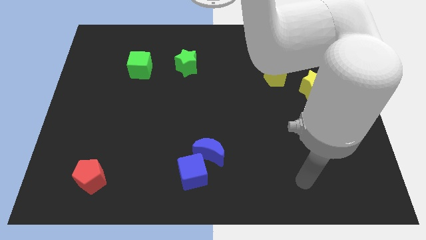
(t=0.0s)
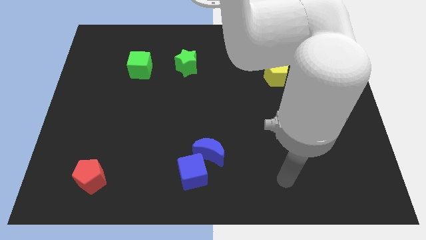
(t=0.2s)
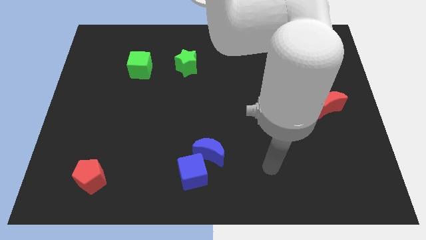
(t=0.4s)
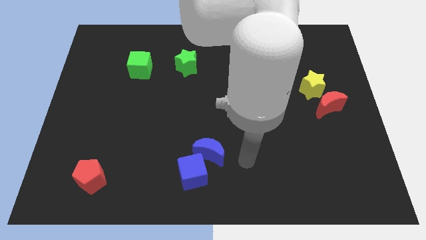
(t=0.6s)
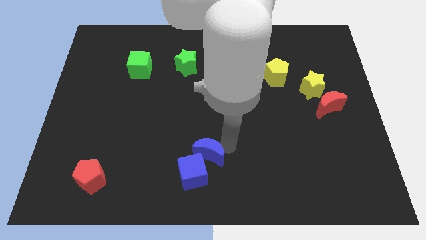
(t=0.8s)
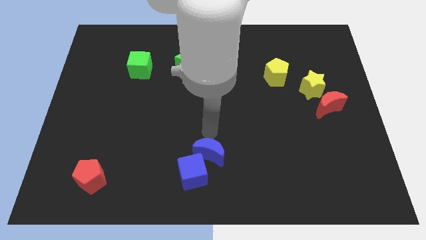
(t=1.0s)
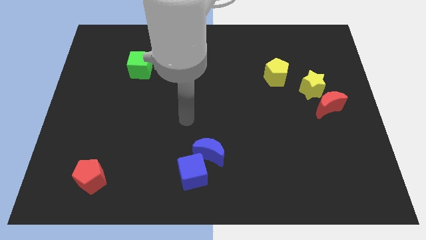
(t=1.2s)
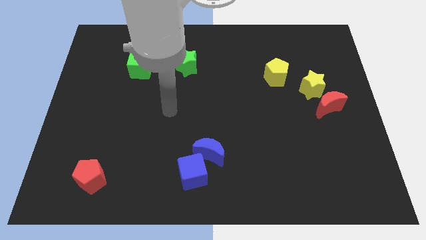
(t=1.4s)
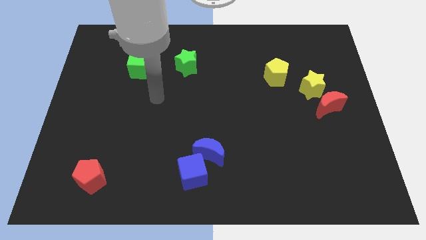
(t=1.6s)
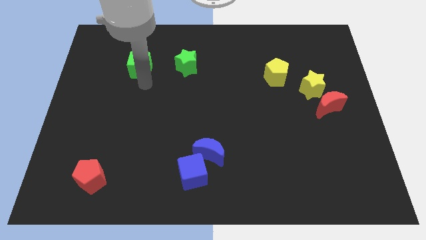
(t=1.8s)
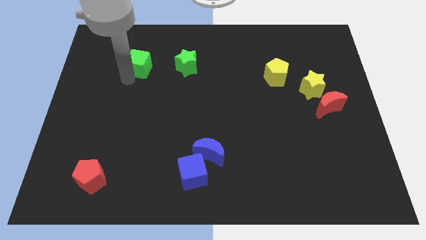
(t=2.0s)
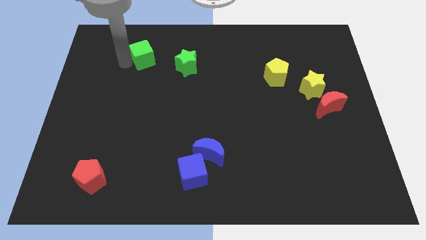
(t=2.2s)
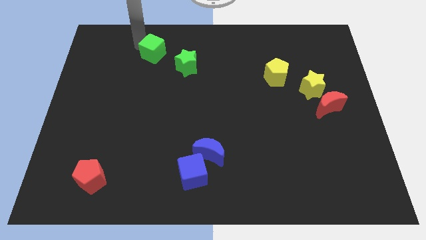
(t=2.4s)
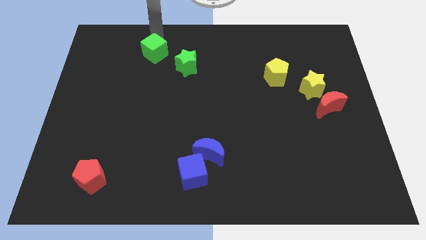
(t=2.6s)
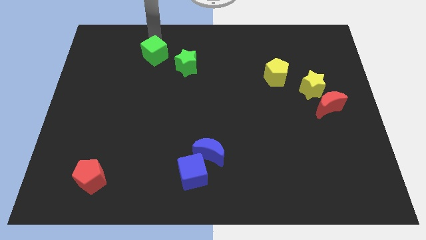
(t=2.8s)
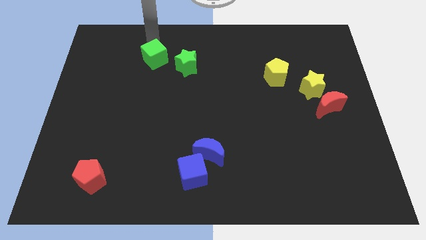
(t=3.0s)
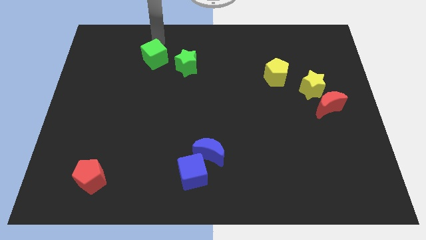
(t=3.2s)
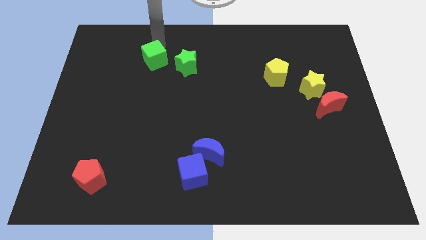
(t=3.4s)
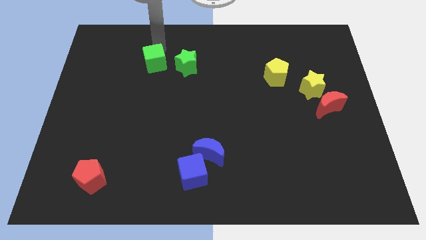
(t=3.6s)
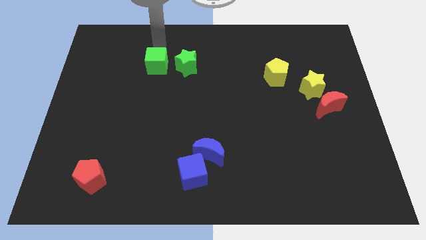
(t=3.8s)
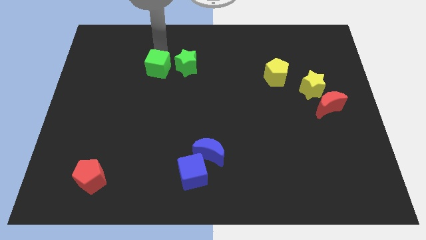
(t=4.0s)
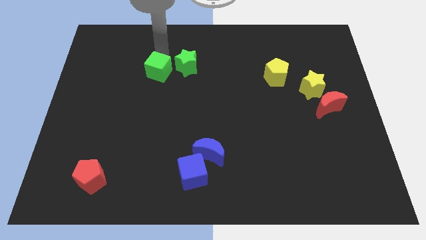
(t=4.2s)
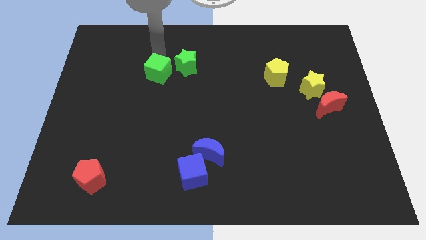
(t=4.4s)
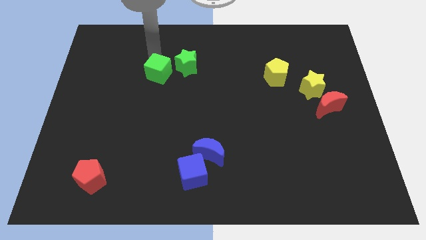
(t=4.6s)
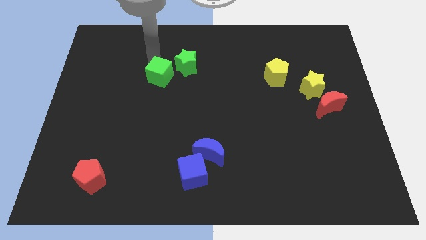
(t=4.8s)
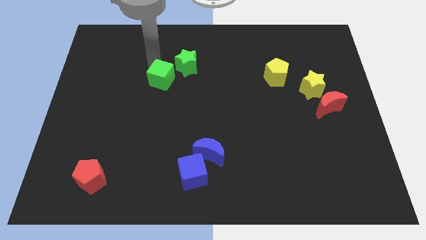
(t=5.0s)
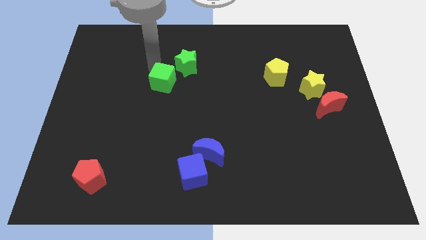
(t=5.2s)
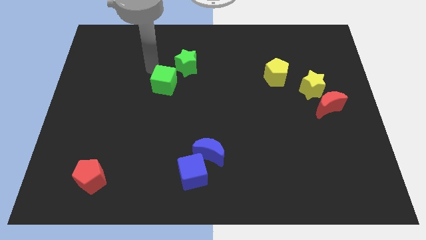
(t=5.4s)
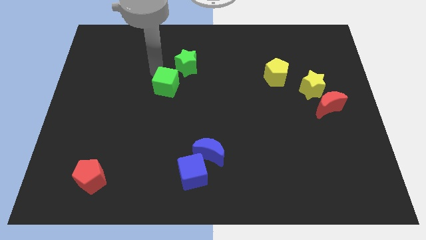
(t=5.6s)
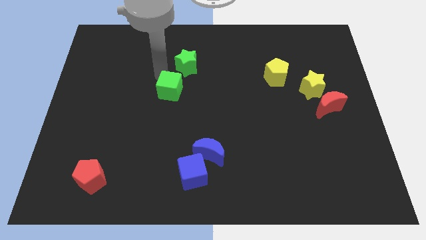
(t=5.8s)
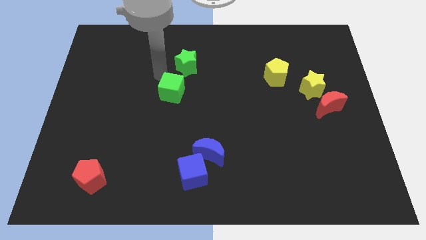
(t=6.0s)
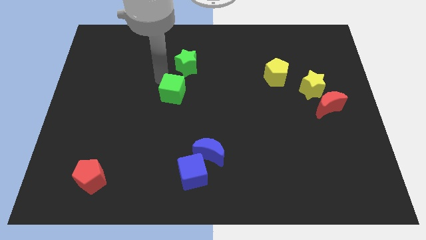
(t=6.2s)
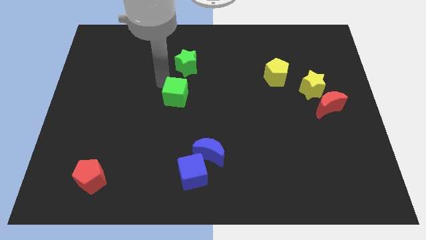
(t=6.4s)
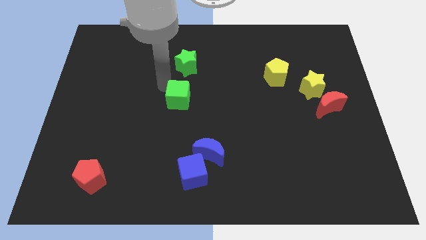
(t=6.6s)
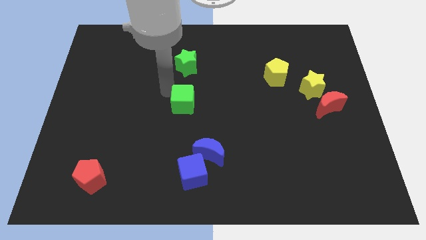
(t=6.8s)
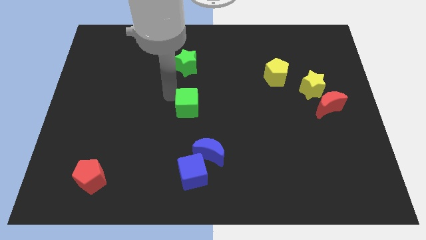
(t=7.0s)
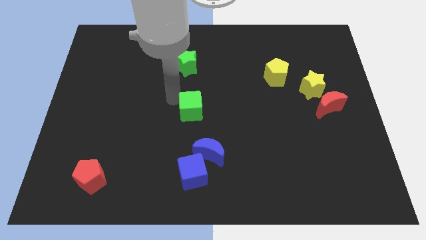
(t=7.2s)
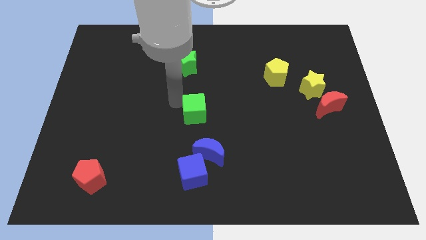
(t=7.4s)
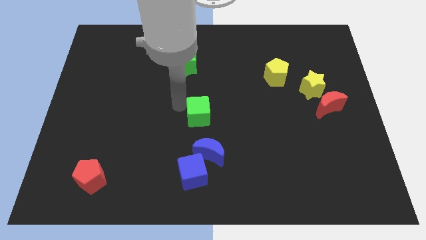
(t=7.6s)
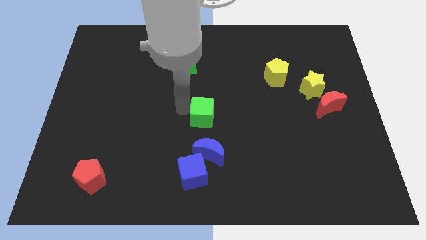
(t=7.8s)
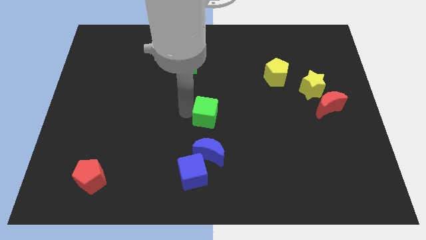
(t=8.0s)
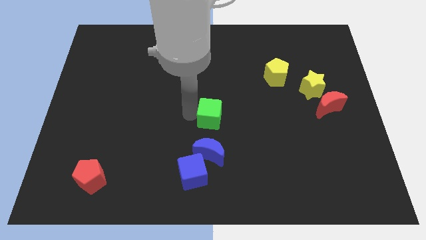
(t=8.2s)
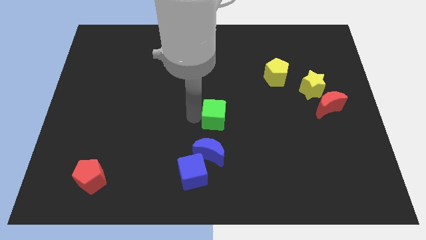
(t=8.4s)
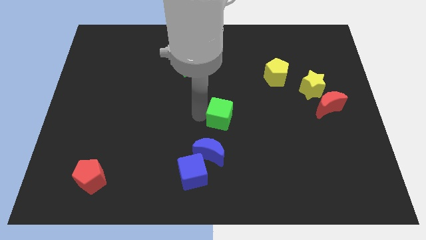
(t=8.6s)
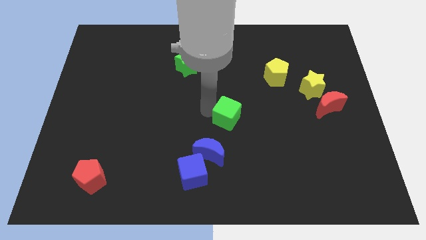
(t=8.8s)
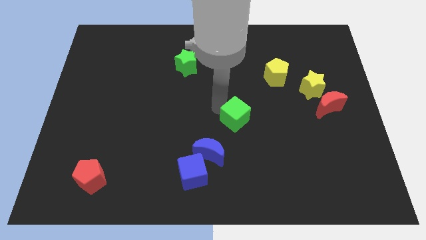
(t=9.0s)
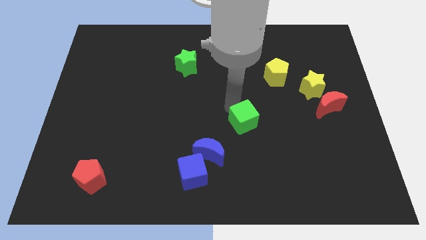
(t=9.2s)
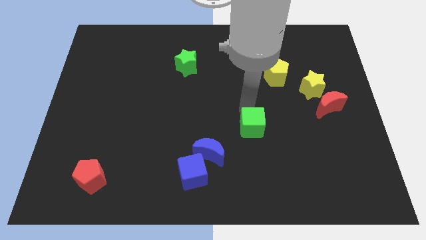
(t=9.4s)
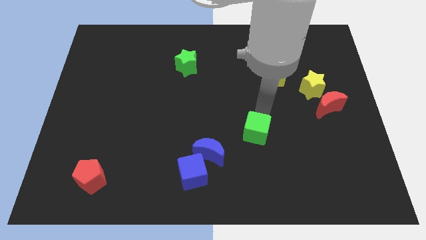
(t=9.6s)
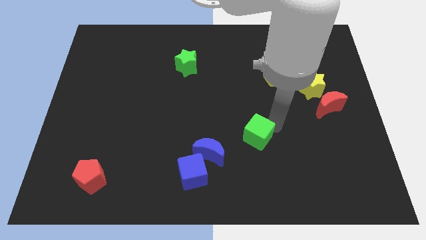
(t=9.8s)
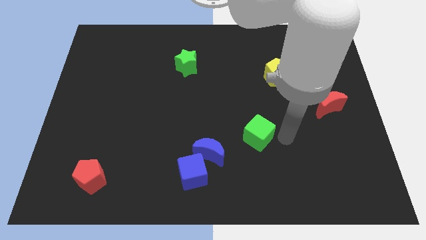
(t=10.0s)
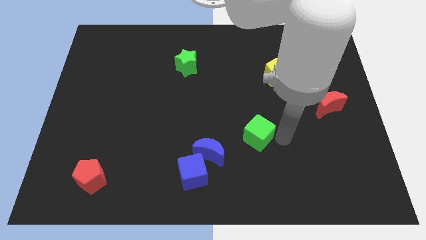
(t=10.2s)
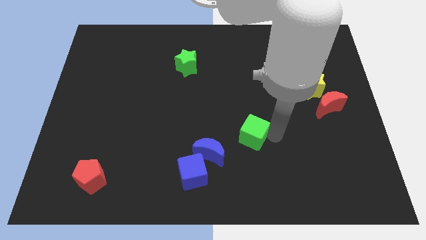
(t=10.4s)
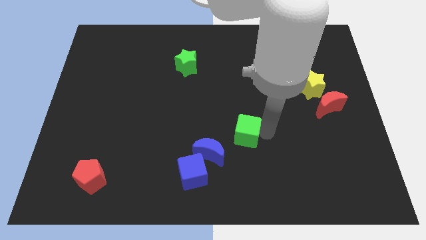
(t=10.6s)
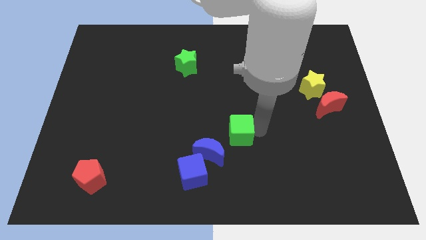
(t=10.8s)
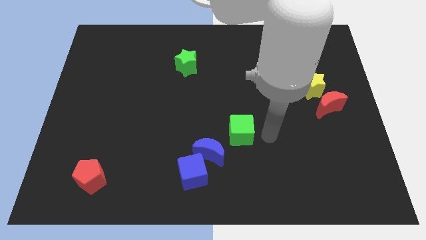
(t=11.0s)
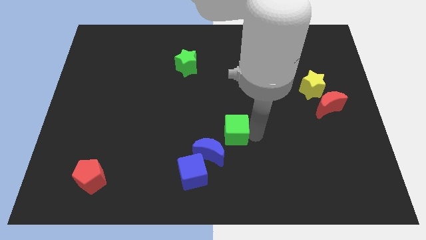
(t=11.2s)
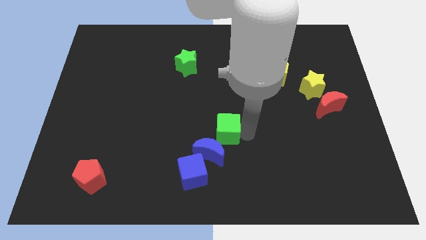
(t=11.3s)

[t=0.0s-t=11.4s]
slide the green cube diagonally up and to the right of the blue cube
